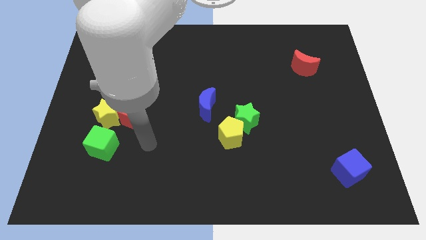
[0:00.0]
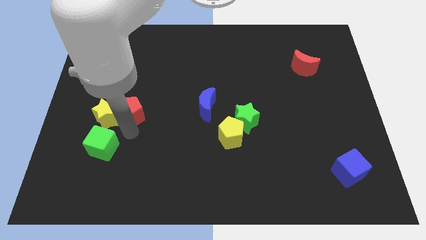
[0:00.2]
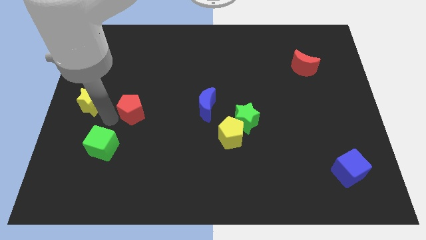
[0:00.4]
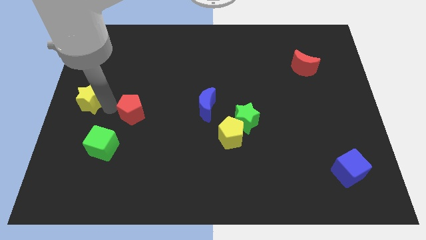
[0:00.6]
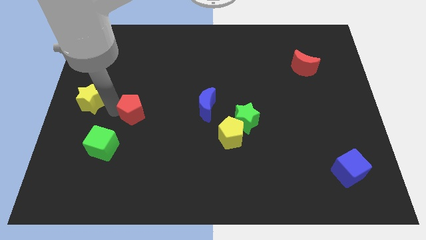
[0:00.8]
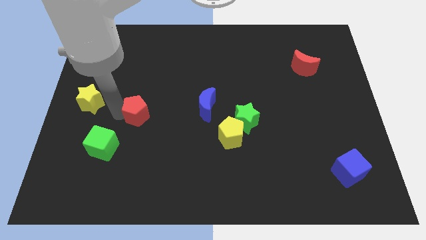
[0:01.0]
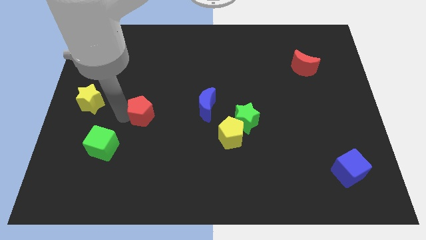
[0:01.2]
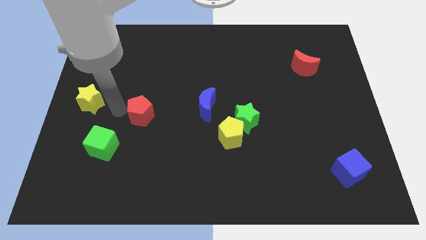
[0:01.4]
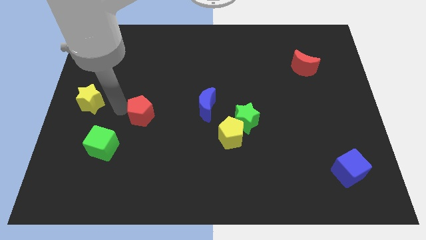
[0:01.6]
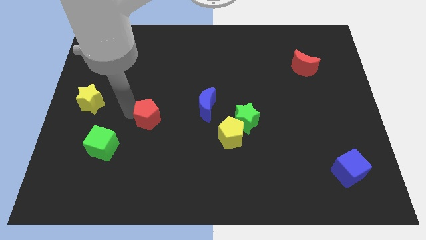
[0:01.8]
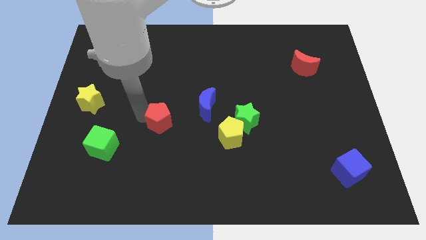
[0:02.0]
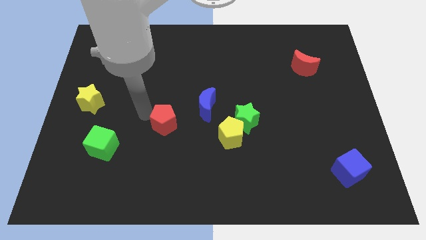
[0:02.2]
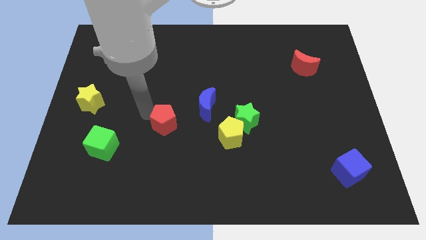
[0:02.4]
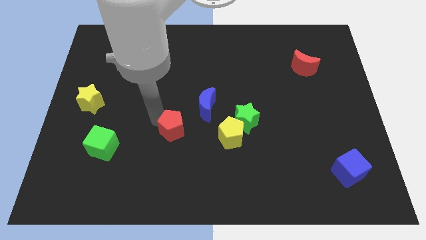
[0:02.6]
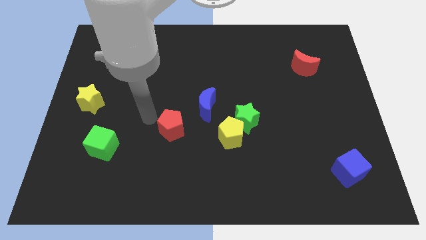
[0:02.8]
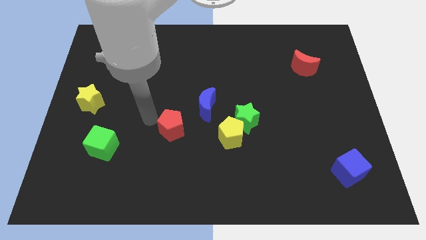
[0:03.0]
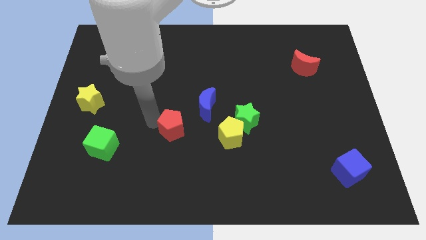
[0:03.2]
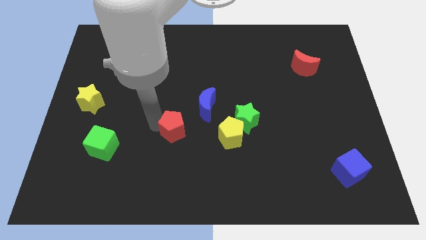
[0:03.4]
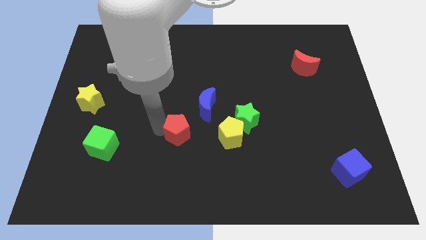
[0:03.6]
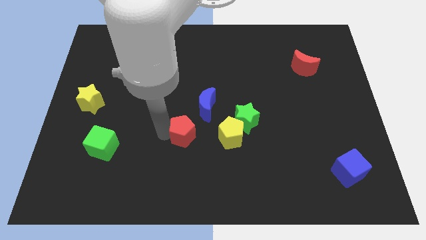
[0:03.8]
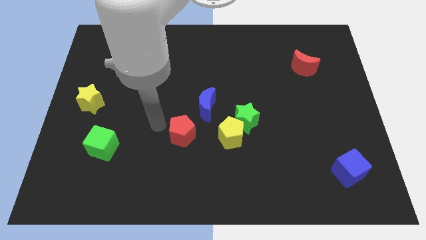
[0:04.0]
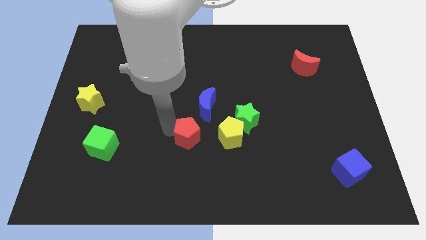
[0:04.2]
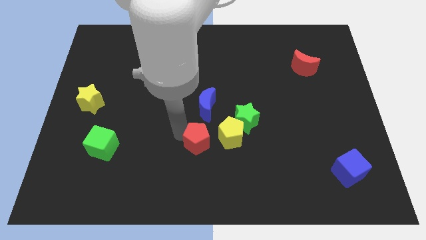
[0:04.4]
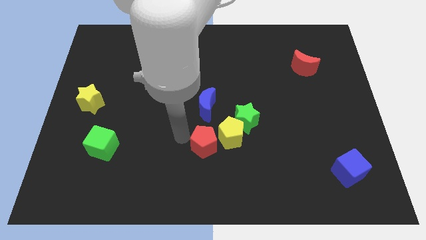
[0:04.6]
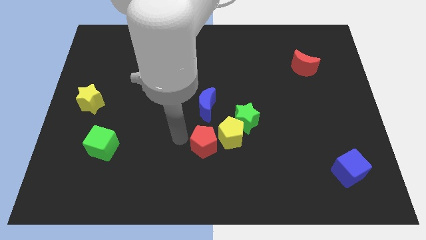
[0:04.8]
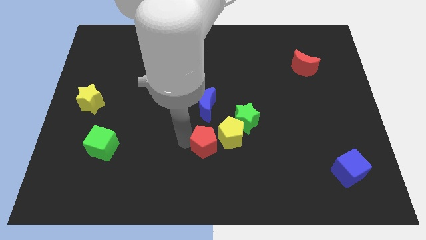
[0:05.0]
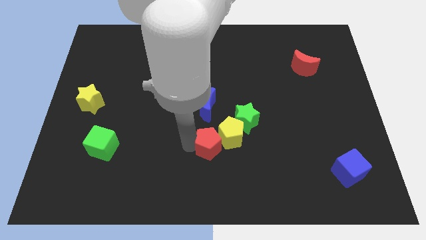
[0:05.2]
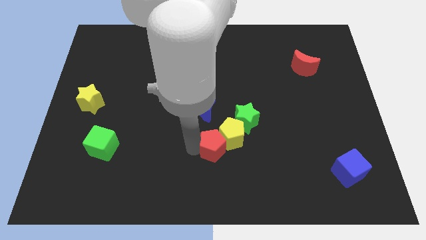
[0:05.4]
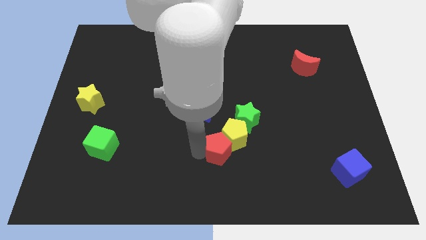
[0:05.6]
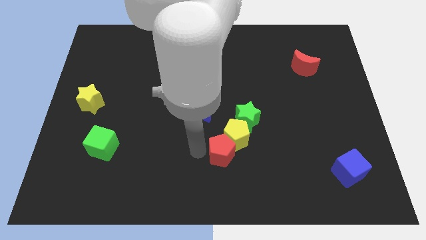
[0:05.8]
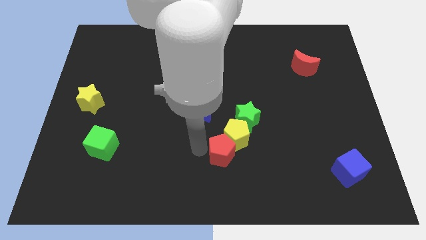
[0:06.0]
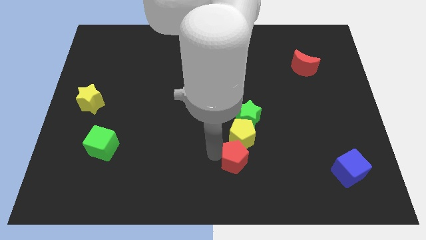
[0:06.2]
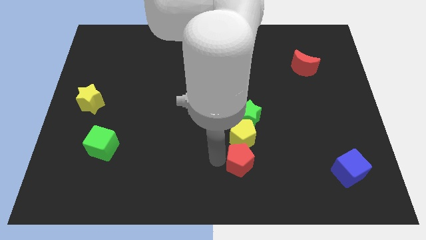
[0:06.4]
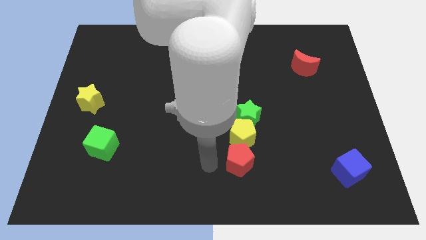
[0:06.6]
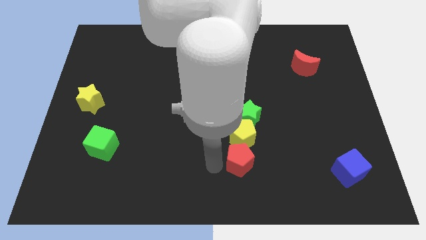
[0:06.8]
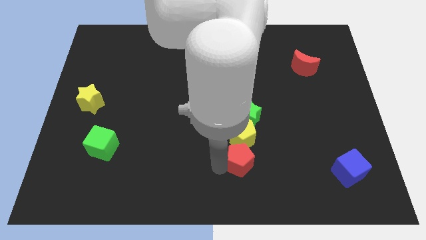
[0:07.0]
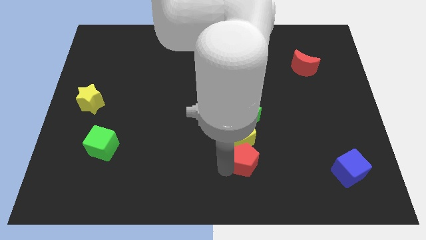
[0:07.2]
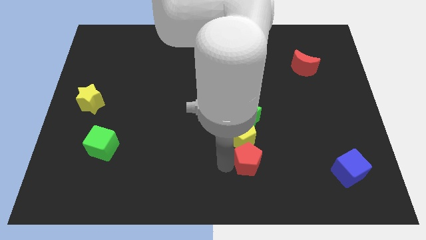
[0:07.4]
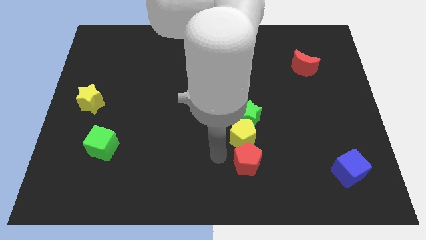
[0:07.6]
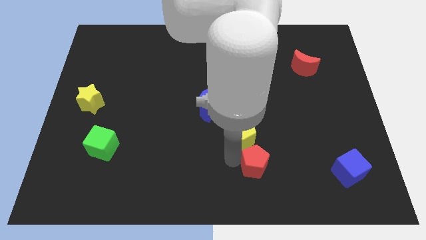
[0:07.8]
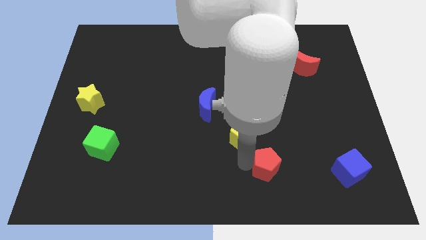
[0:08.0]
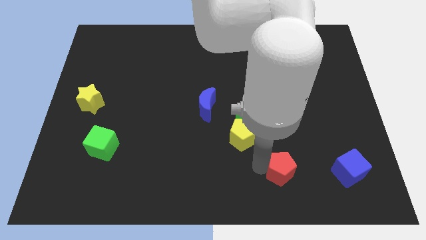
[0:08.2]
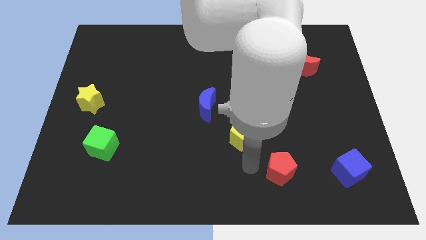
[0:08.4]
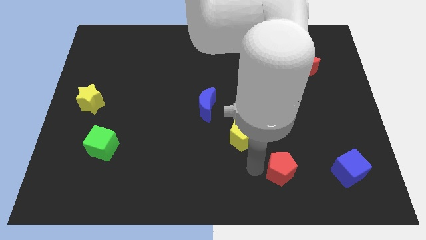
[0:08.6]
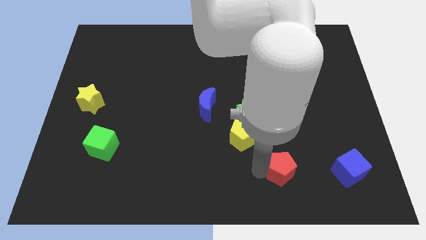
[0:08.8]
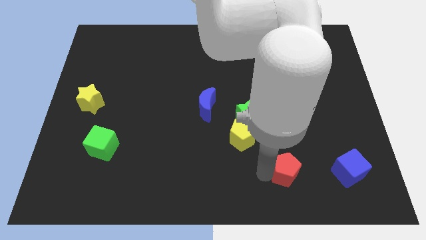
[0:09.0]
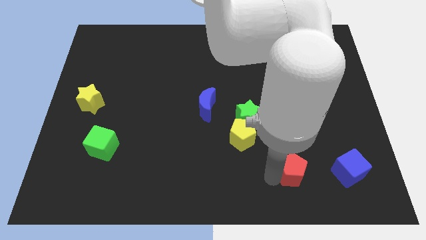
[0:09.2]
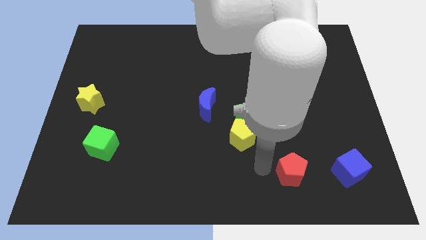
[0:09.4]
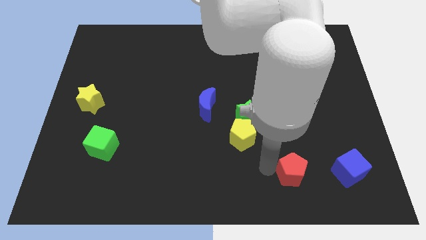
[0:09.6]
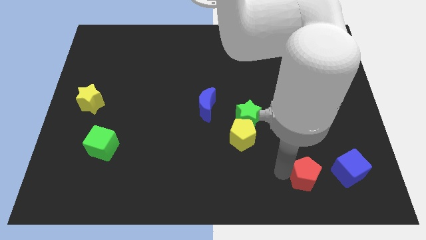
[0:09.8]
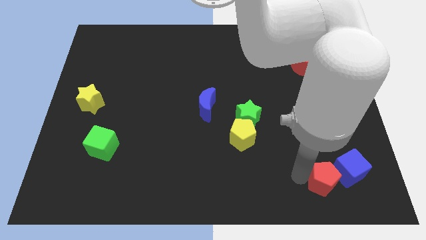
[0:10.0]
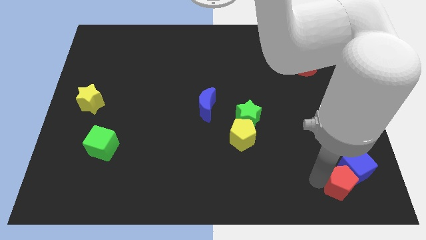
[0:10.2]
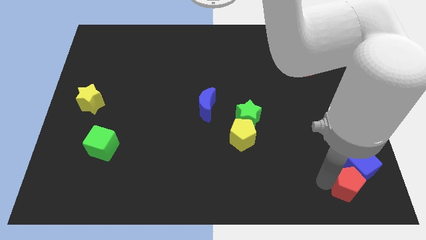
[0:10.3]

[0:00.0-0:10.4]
push the red pentagon to the bottom right of the board

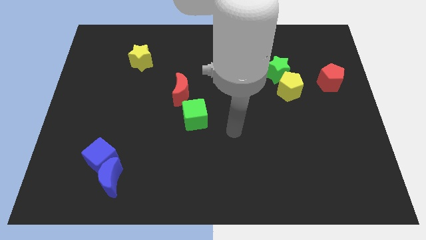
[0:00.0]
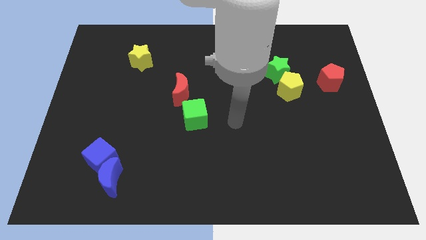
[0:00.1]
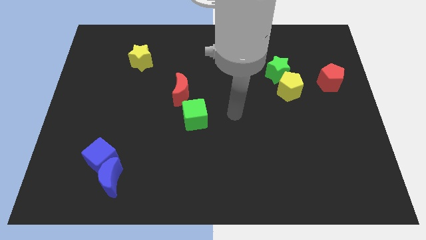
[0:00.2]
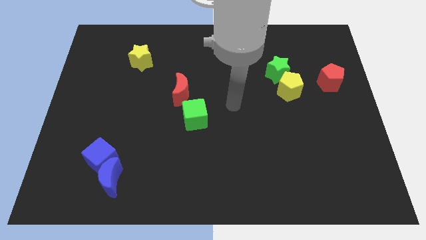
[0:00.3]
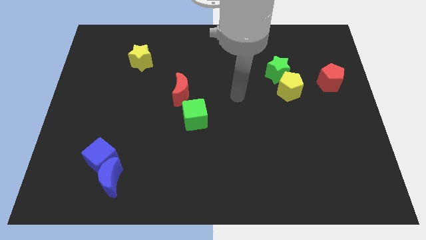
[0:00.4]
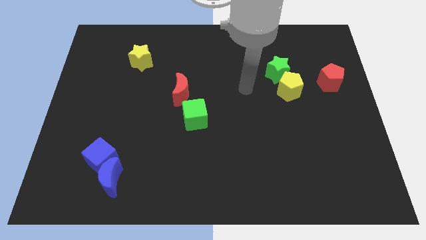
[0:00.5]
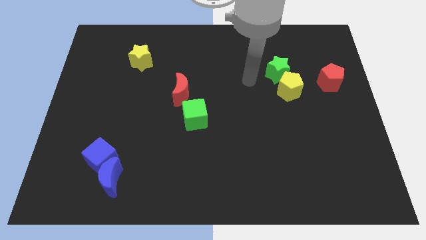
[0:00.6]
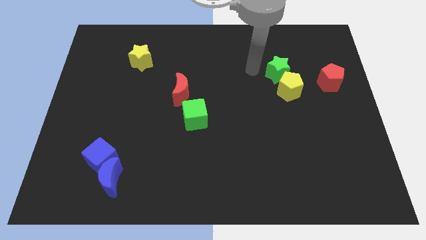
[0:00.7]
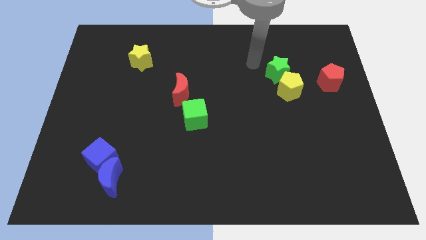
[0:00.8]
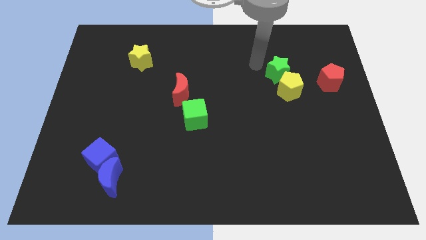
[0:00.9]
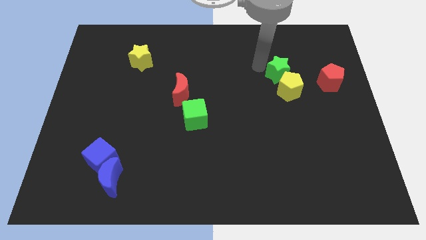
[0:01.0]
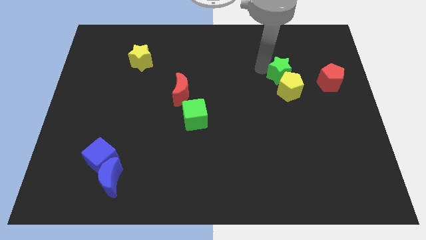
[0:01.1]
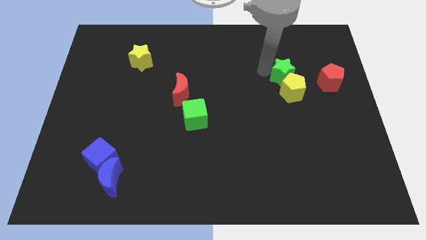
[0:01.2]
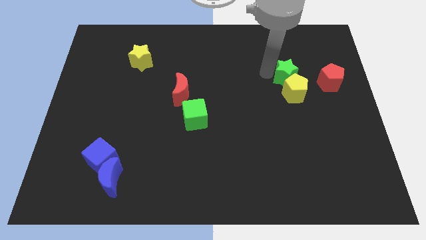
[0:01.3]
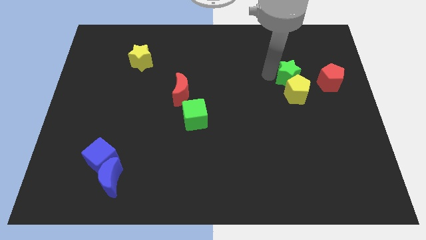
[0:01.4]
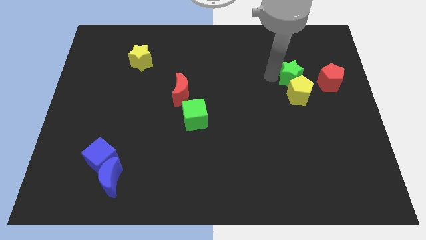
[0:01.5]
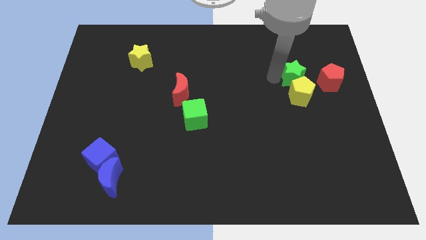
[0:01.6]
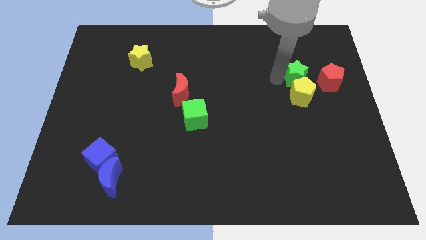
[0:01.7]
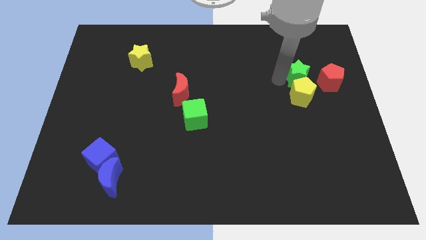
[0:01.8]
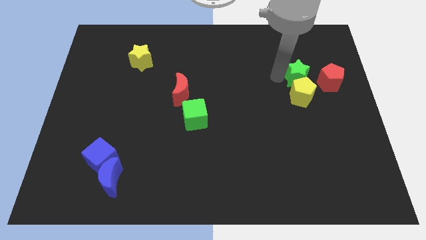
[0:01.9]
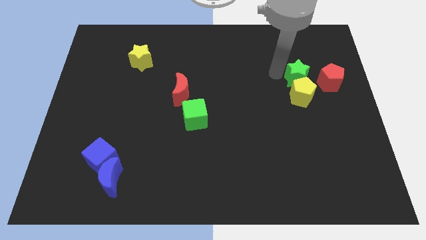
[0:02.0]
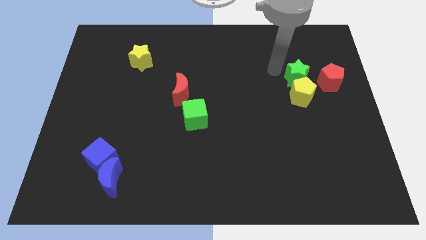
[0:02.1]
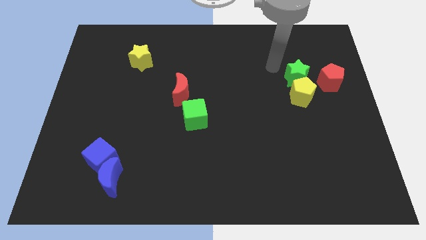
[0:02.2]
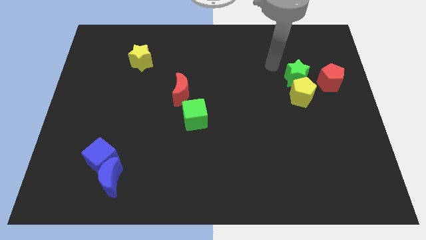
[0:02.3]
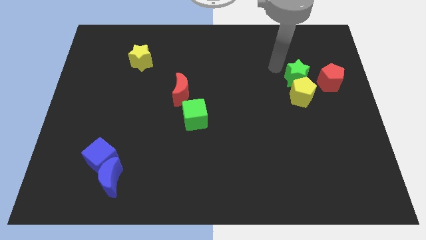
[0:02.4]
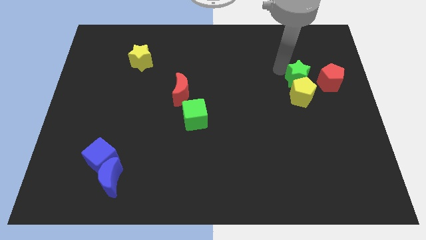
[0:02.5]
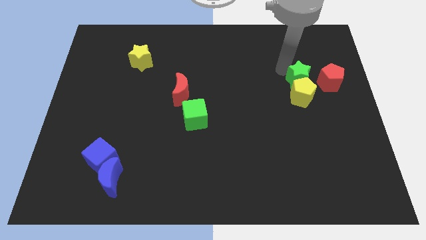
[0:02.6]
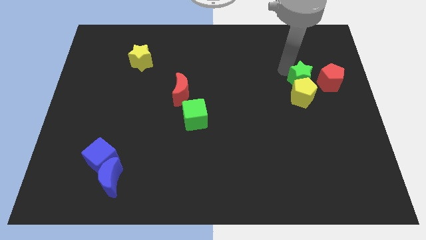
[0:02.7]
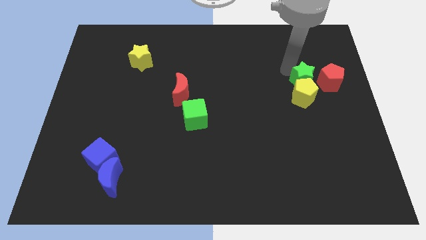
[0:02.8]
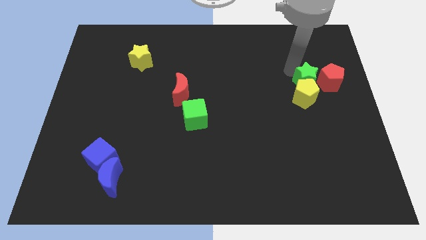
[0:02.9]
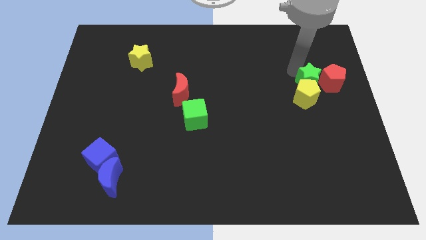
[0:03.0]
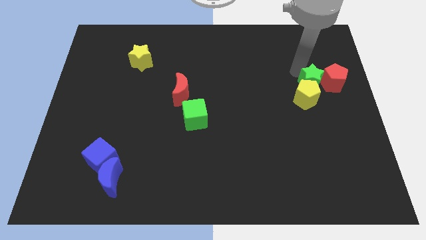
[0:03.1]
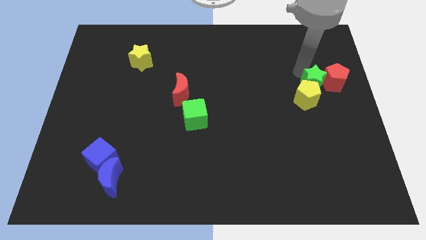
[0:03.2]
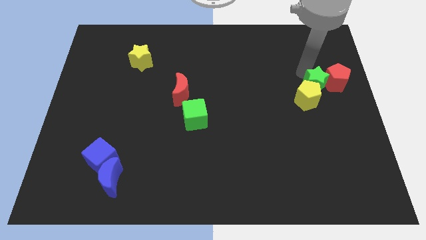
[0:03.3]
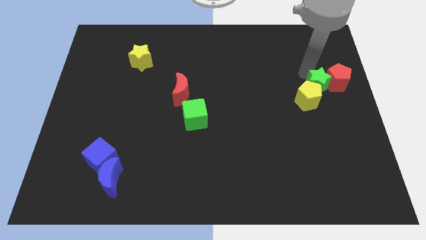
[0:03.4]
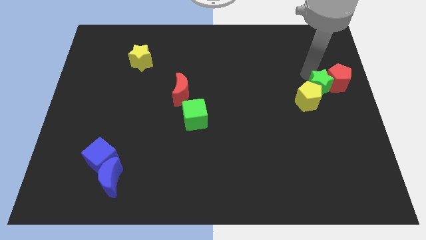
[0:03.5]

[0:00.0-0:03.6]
slide the green star to the right side of the board
